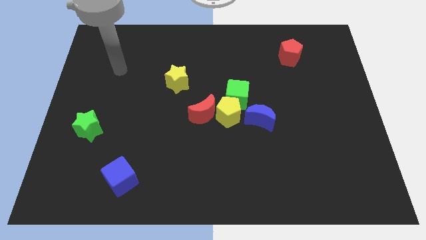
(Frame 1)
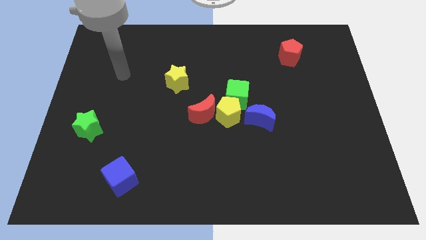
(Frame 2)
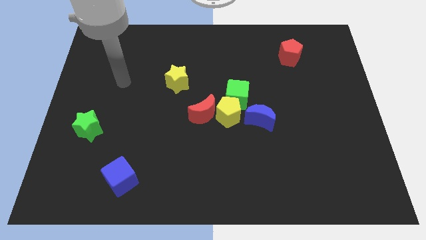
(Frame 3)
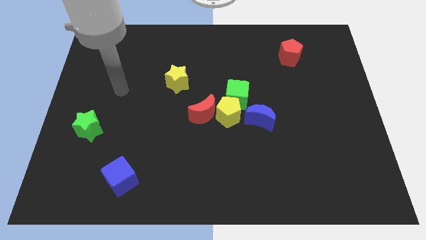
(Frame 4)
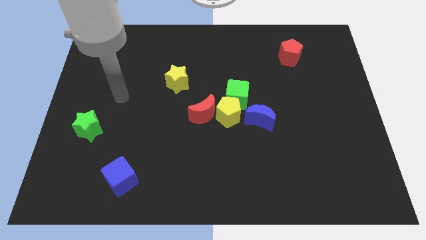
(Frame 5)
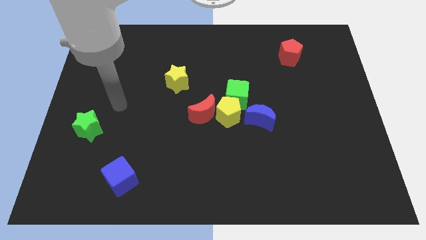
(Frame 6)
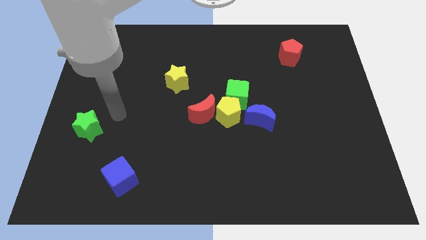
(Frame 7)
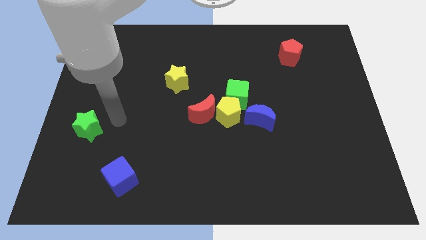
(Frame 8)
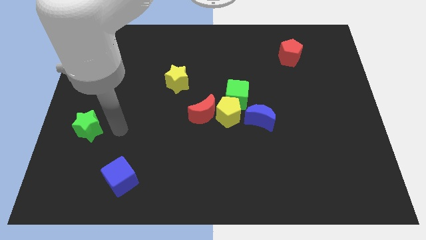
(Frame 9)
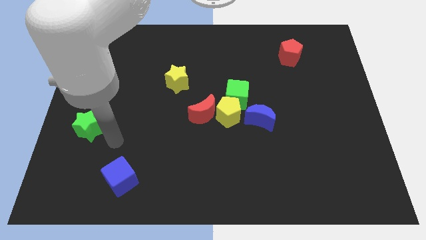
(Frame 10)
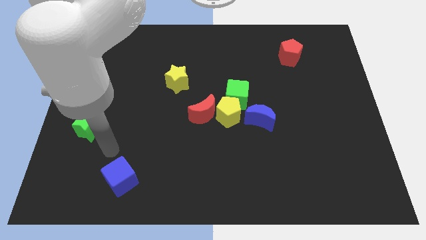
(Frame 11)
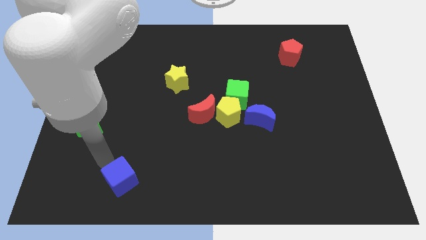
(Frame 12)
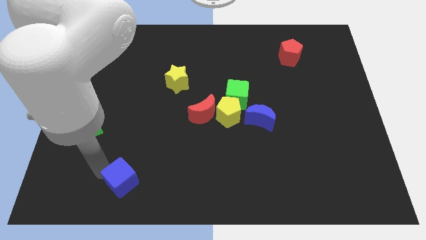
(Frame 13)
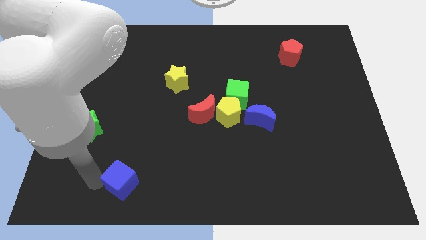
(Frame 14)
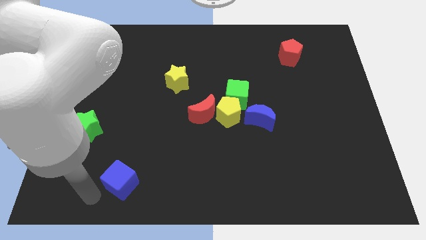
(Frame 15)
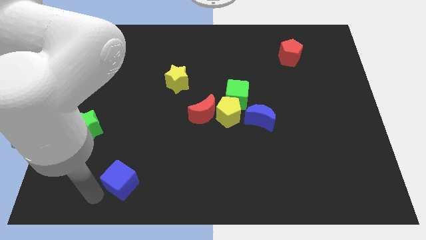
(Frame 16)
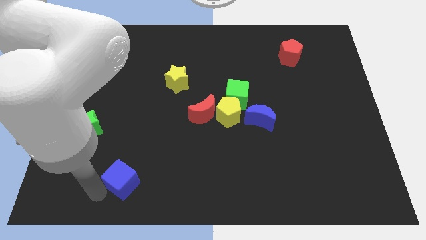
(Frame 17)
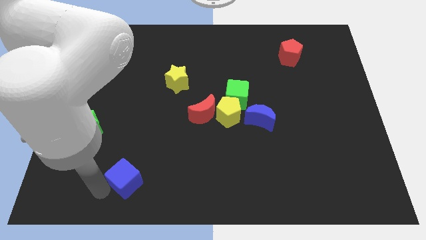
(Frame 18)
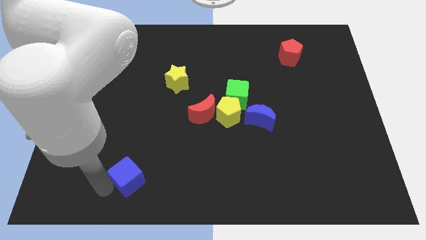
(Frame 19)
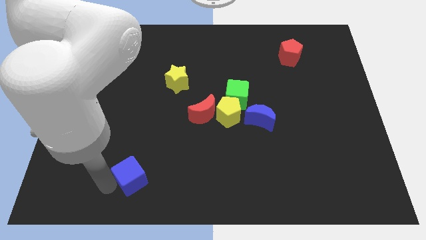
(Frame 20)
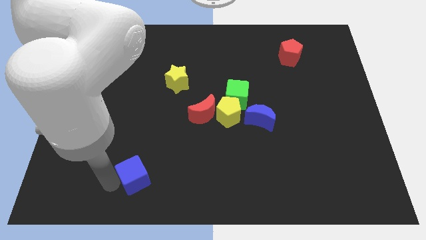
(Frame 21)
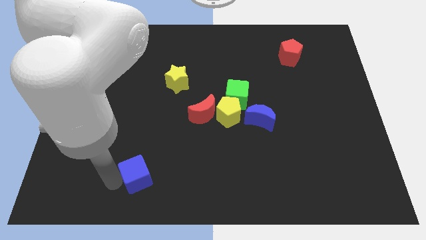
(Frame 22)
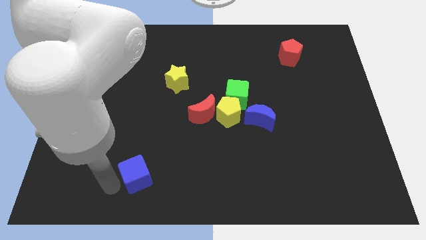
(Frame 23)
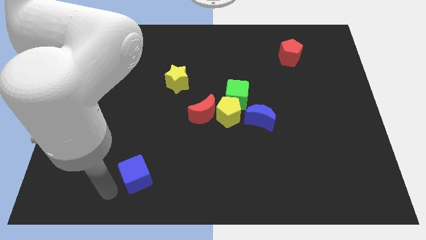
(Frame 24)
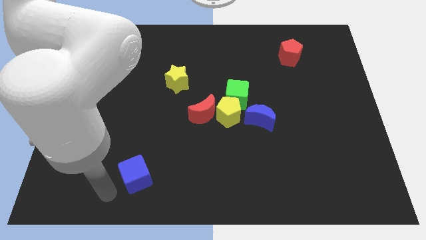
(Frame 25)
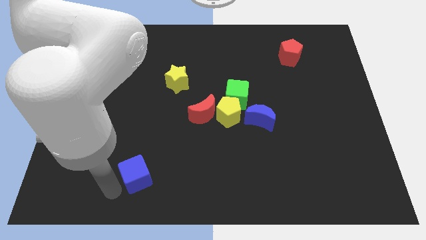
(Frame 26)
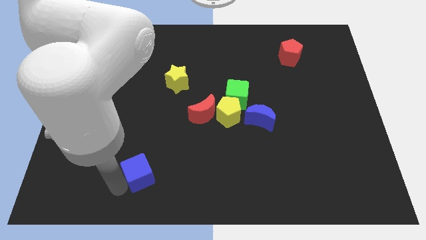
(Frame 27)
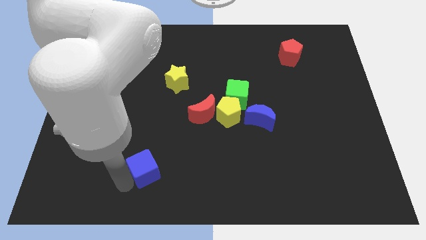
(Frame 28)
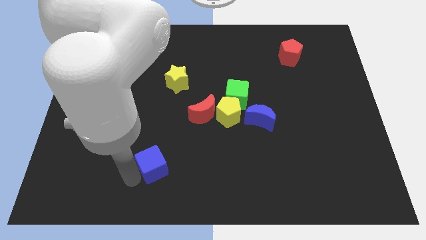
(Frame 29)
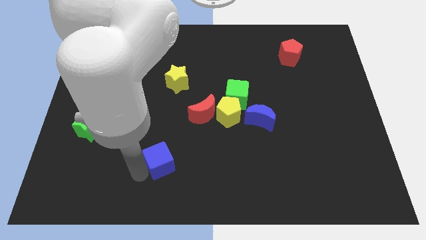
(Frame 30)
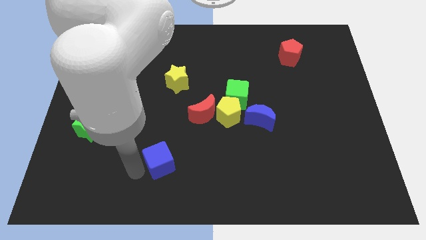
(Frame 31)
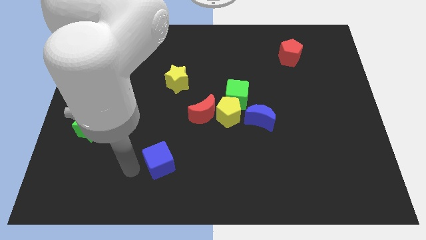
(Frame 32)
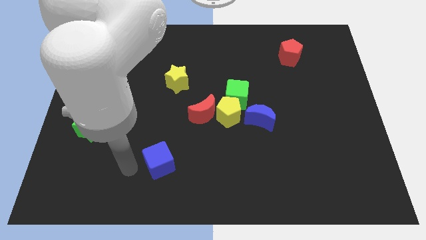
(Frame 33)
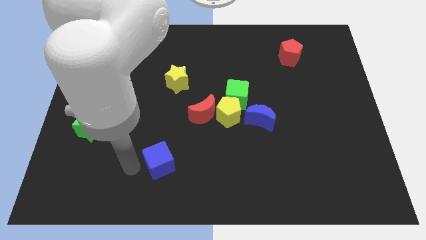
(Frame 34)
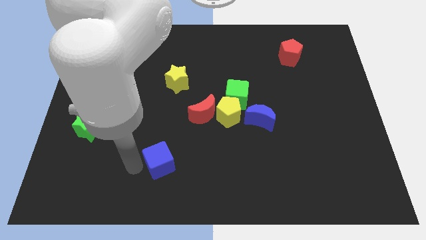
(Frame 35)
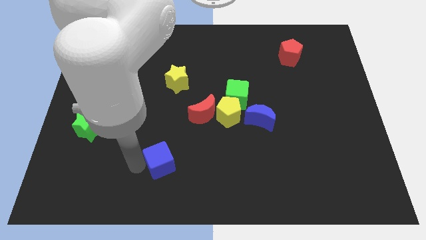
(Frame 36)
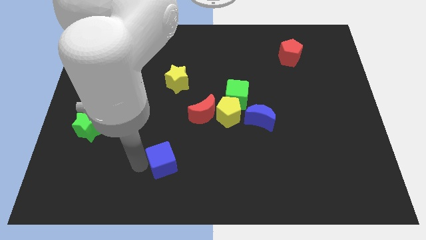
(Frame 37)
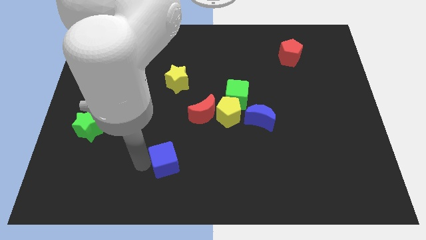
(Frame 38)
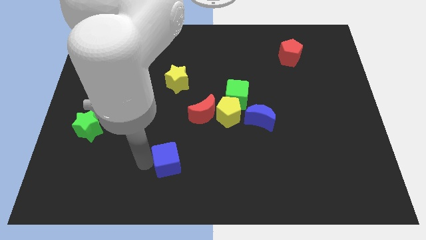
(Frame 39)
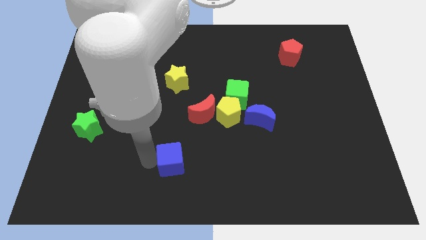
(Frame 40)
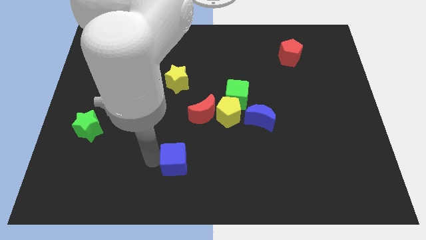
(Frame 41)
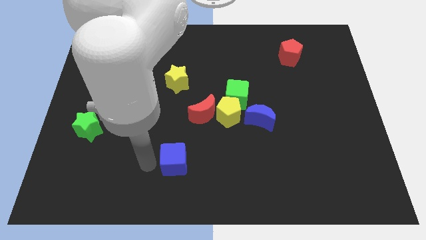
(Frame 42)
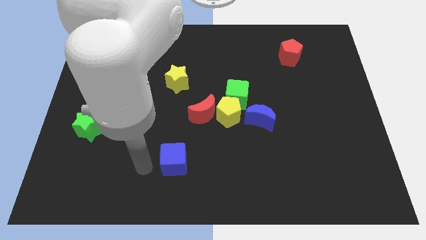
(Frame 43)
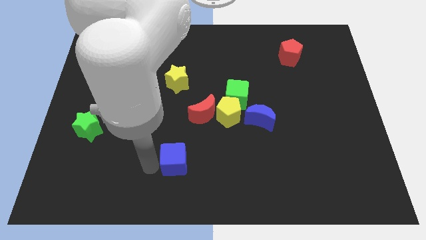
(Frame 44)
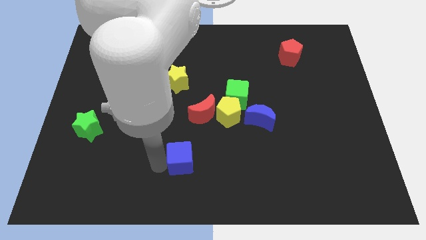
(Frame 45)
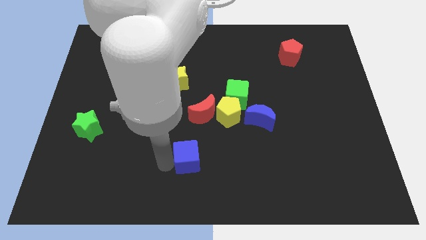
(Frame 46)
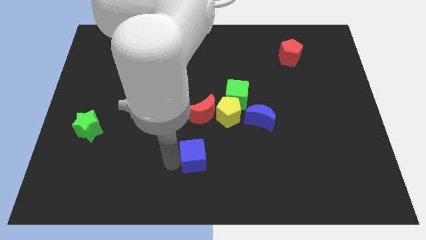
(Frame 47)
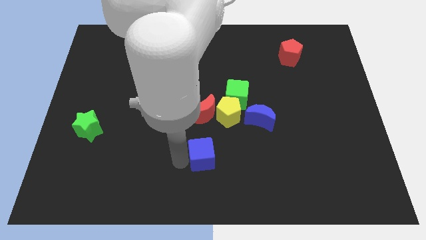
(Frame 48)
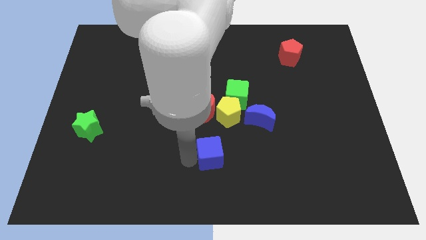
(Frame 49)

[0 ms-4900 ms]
put the blue cube to the bottom side of the yellow pentagon

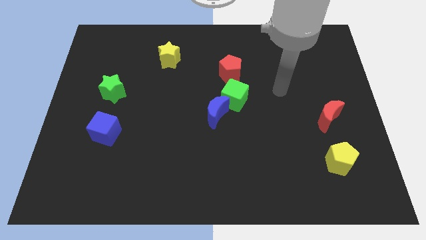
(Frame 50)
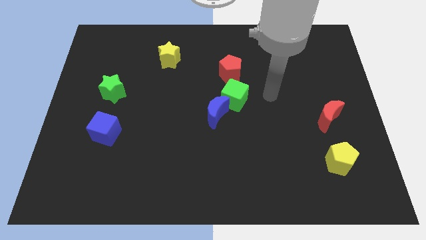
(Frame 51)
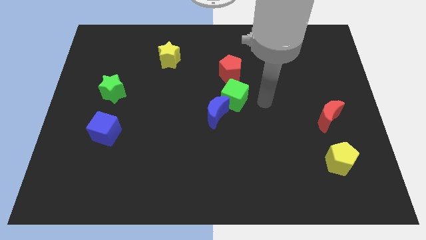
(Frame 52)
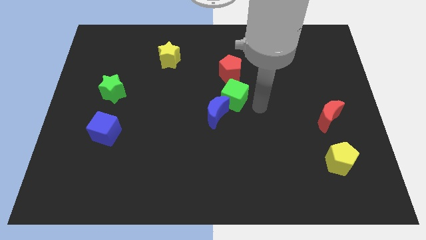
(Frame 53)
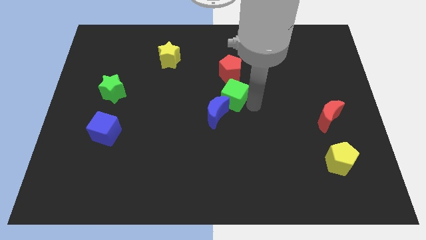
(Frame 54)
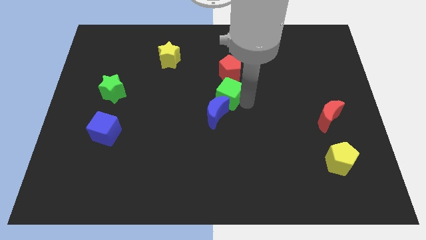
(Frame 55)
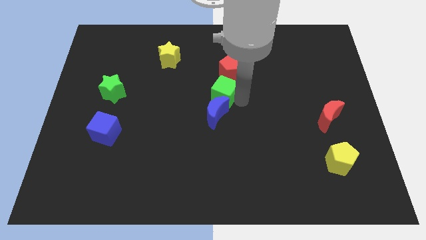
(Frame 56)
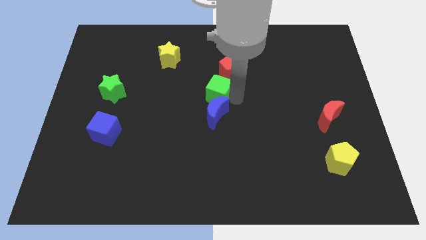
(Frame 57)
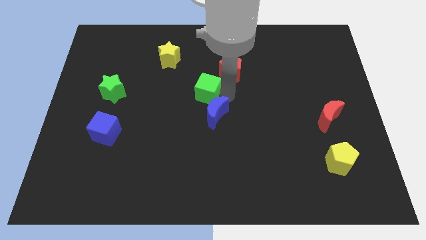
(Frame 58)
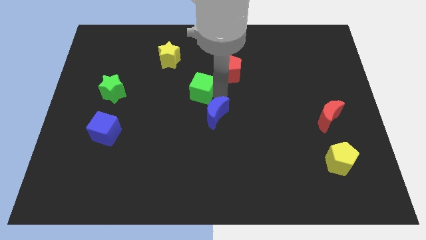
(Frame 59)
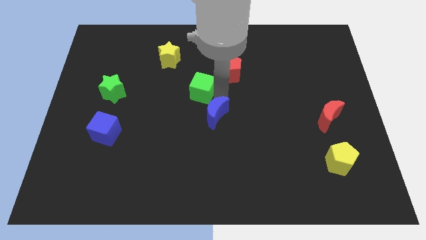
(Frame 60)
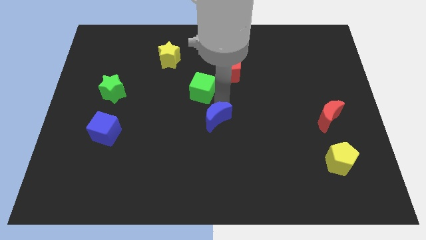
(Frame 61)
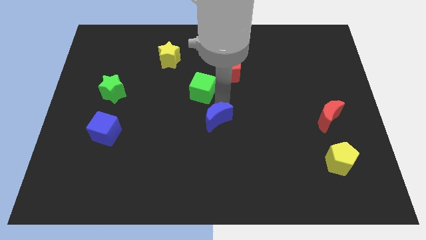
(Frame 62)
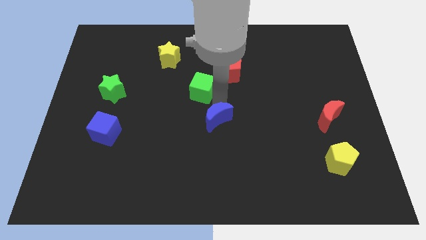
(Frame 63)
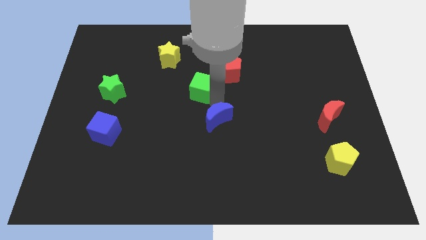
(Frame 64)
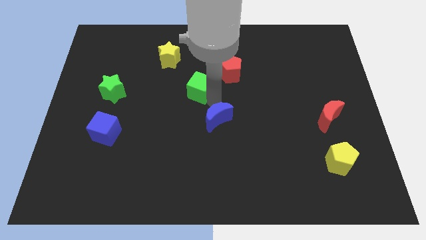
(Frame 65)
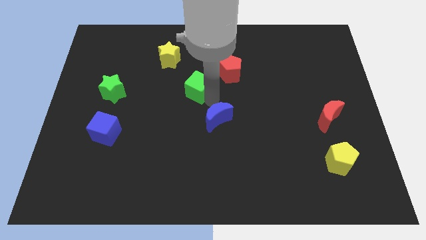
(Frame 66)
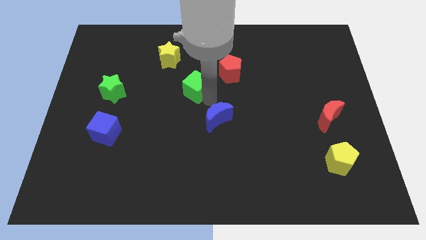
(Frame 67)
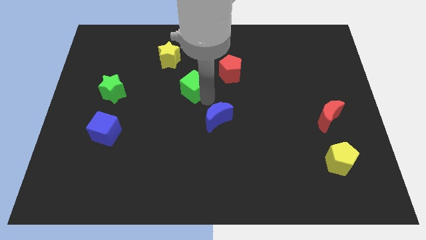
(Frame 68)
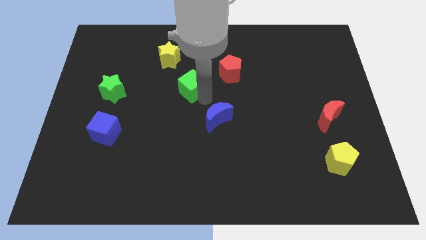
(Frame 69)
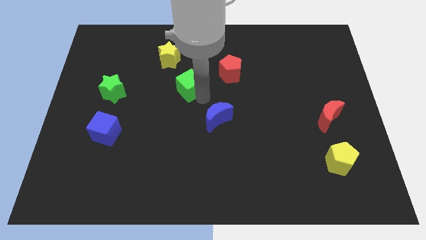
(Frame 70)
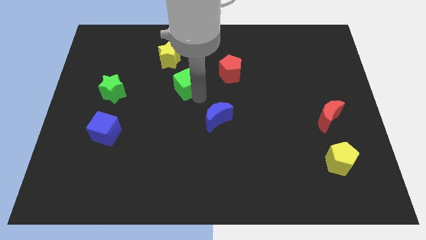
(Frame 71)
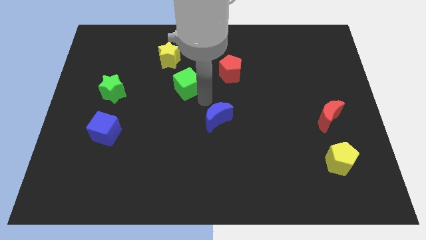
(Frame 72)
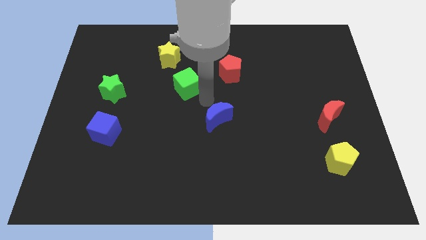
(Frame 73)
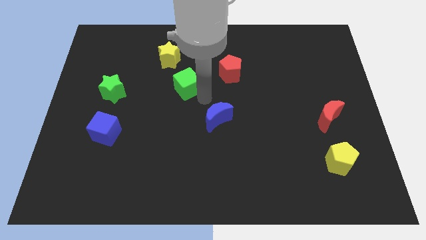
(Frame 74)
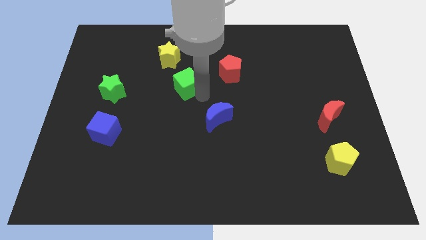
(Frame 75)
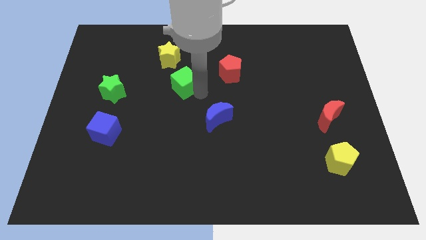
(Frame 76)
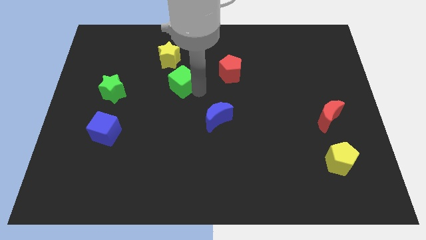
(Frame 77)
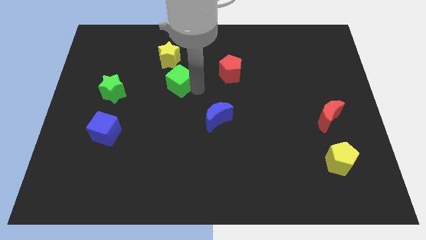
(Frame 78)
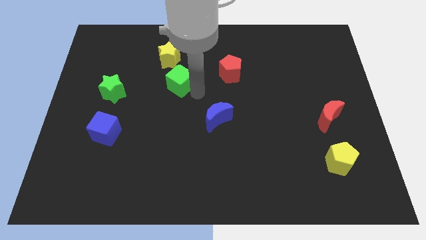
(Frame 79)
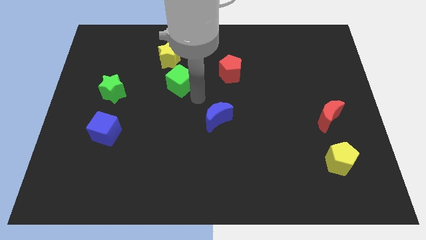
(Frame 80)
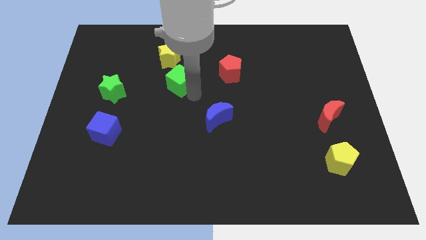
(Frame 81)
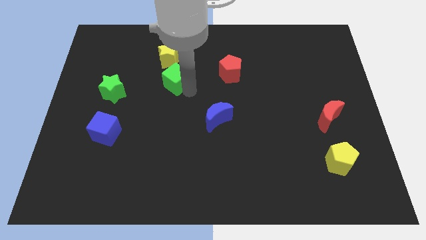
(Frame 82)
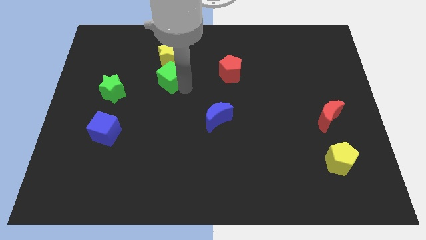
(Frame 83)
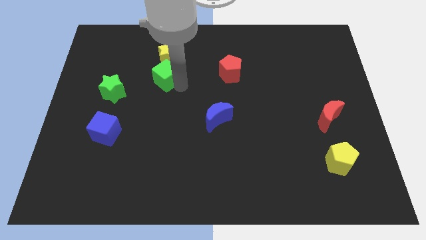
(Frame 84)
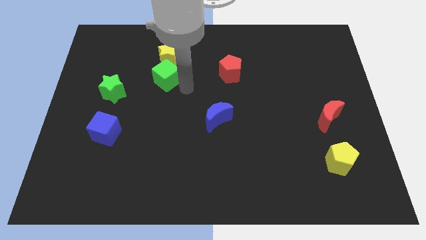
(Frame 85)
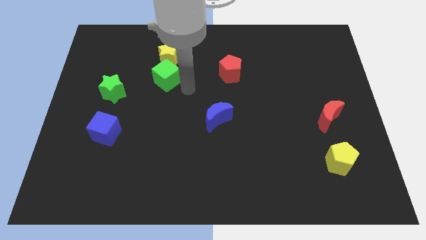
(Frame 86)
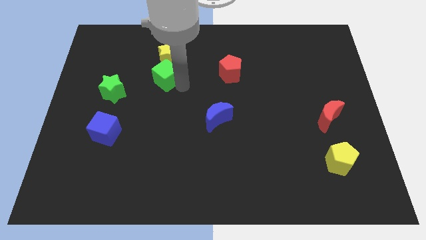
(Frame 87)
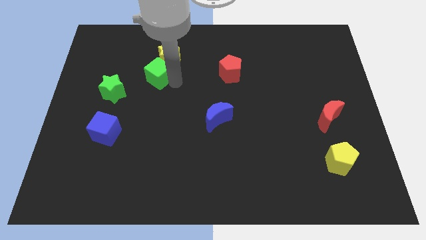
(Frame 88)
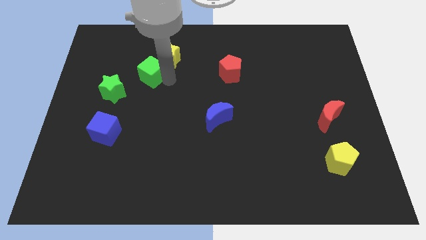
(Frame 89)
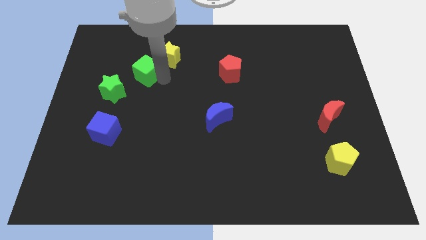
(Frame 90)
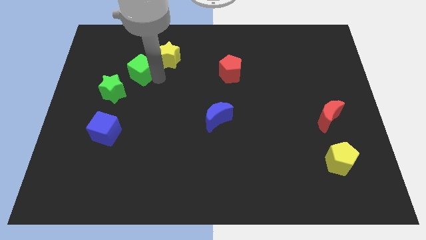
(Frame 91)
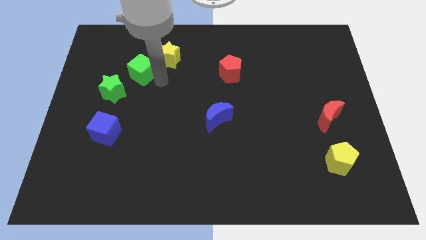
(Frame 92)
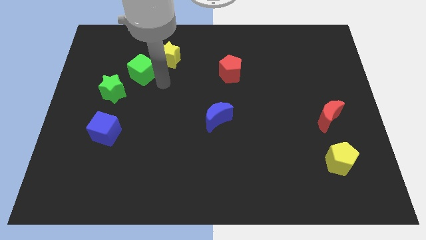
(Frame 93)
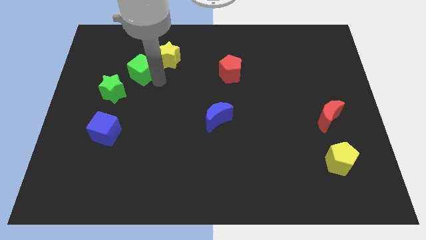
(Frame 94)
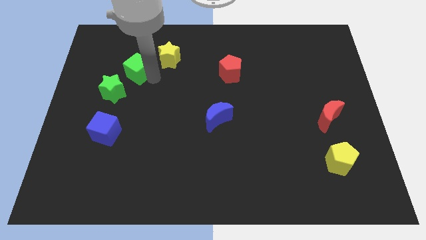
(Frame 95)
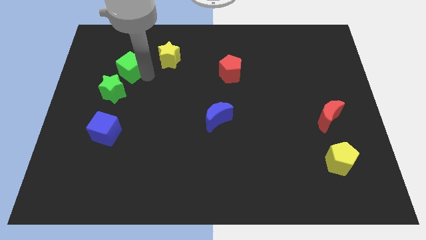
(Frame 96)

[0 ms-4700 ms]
move the green cube above the green star
